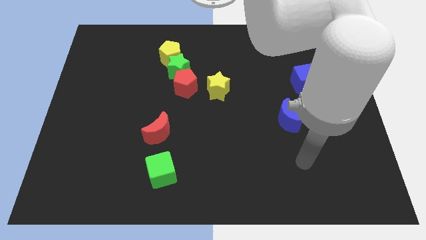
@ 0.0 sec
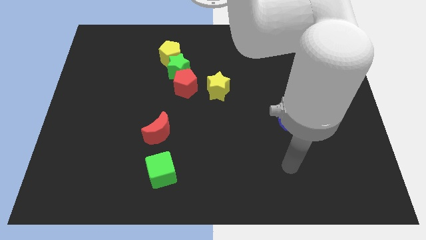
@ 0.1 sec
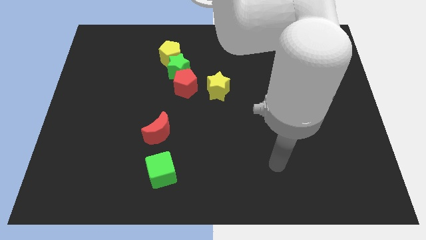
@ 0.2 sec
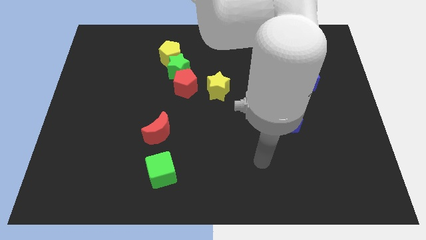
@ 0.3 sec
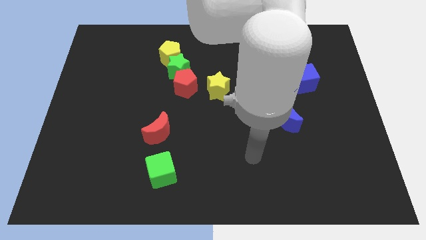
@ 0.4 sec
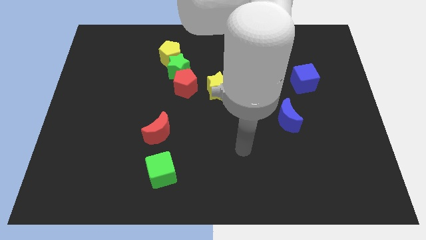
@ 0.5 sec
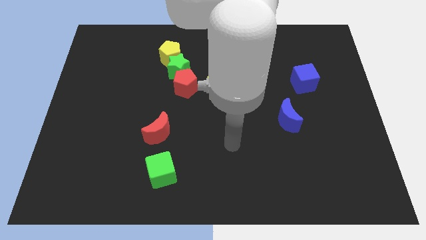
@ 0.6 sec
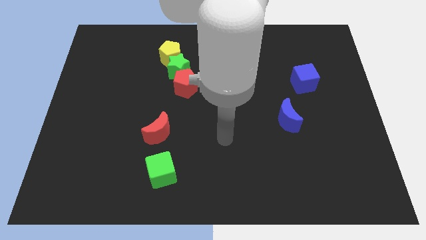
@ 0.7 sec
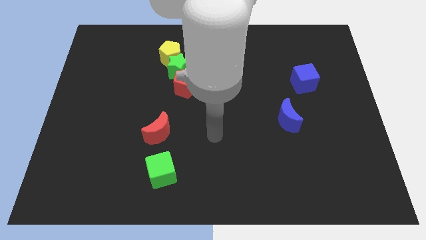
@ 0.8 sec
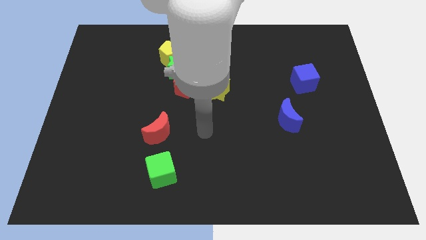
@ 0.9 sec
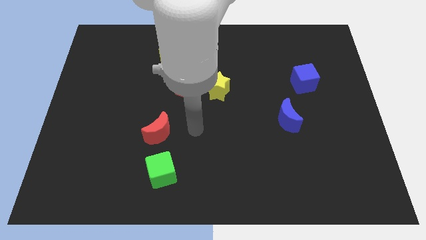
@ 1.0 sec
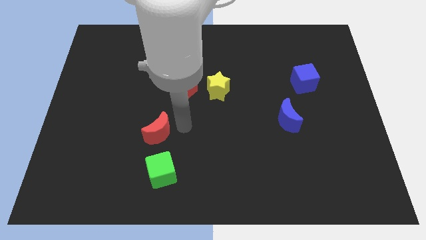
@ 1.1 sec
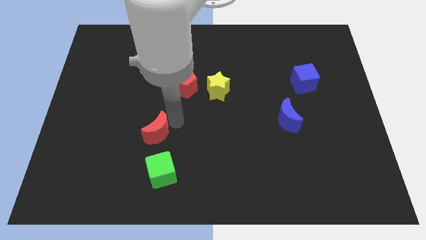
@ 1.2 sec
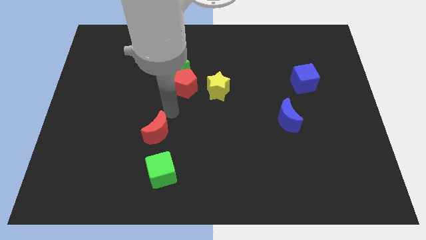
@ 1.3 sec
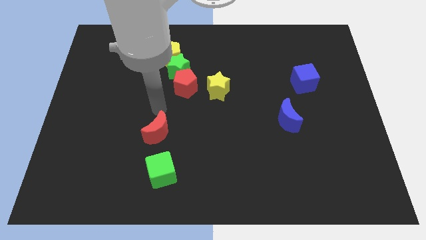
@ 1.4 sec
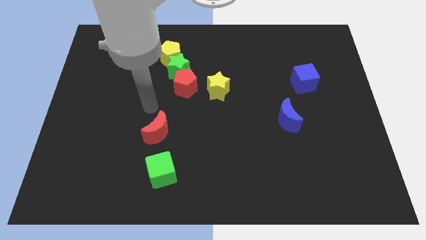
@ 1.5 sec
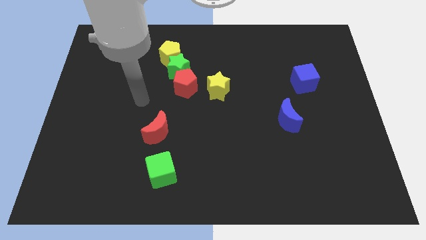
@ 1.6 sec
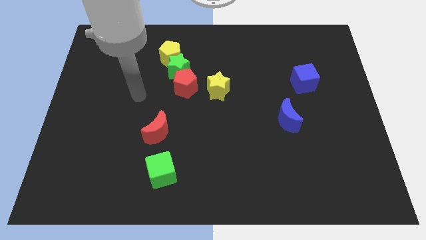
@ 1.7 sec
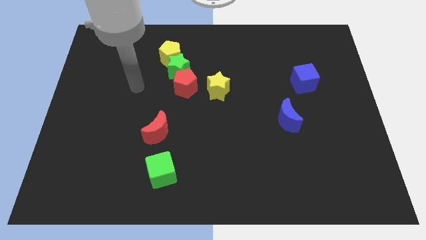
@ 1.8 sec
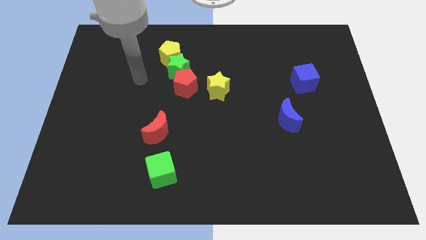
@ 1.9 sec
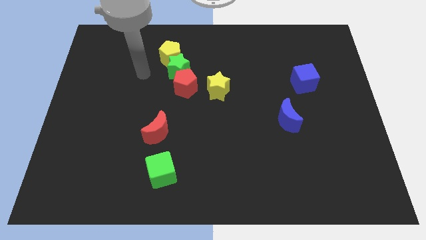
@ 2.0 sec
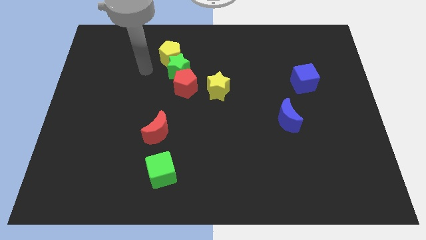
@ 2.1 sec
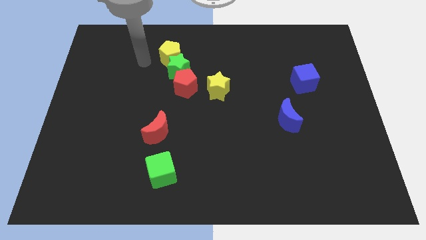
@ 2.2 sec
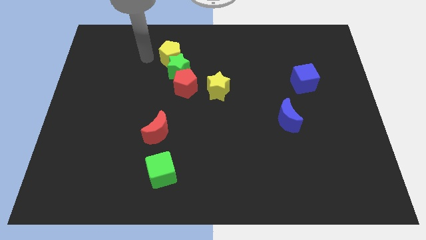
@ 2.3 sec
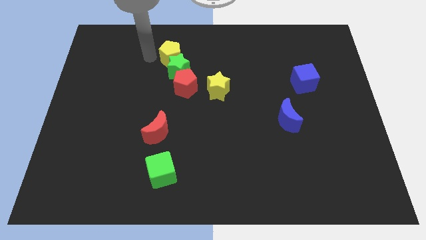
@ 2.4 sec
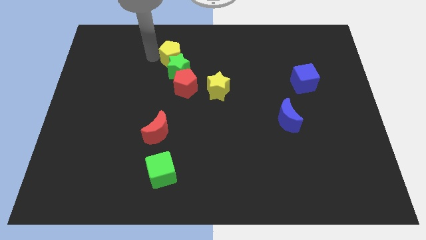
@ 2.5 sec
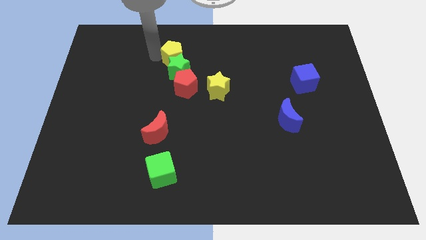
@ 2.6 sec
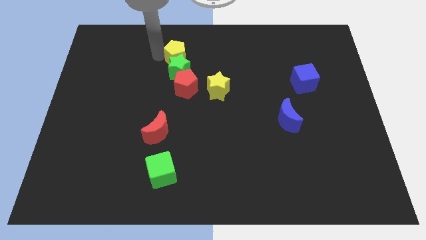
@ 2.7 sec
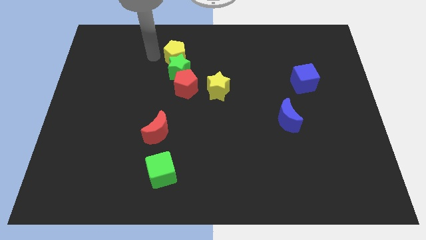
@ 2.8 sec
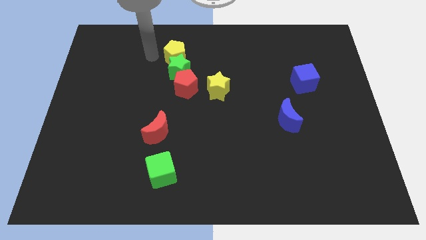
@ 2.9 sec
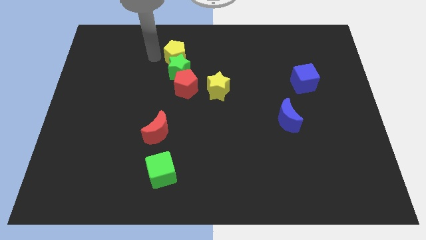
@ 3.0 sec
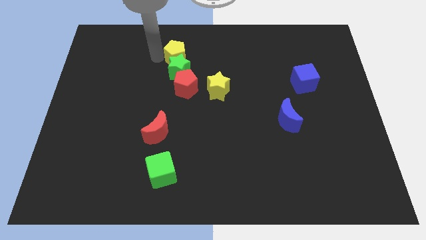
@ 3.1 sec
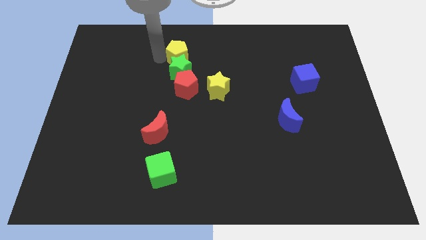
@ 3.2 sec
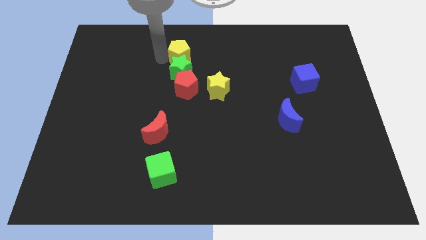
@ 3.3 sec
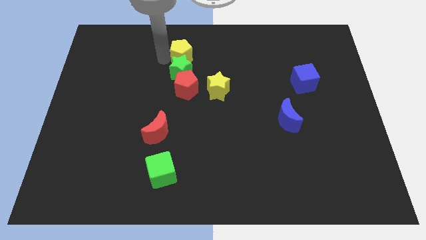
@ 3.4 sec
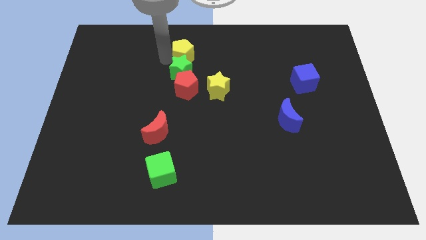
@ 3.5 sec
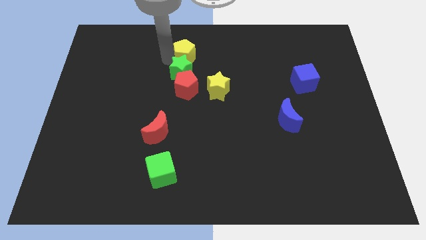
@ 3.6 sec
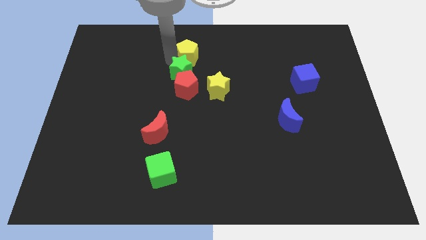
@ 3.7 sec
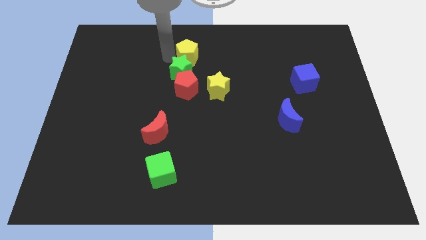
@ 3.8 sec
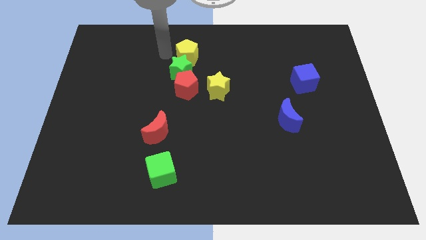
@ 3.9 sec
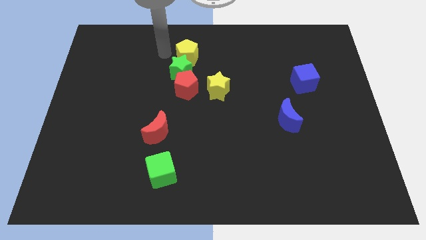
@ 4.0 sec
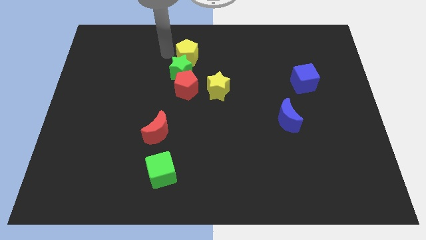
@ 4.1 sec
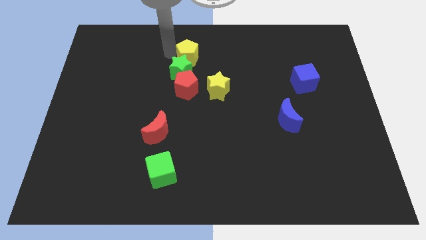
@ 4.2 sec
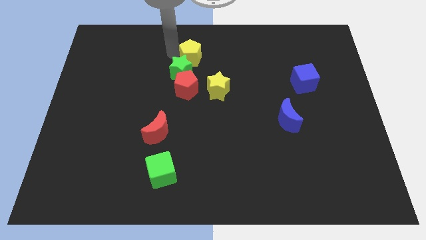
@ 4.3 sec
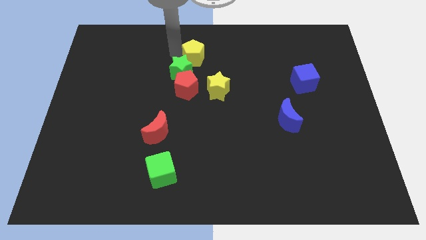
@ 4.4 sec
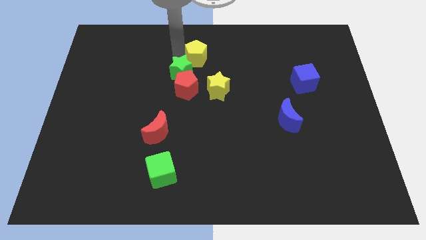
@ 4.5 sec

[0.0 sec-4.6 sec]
move the yellow pentagon to the right a little

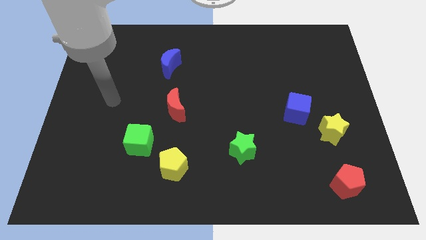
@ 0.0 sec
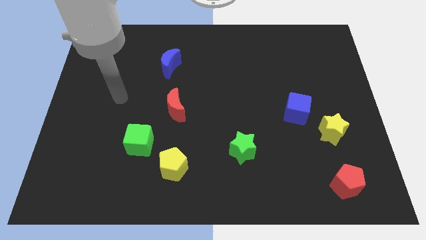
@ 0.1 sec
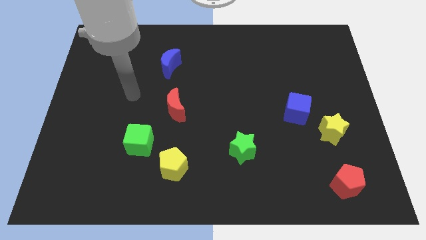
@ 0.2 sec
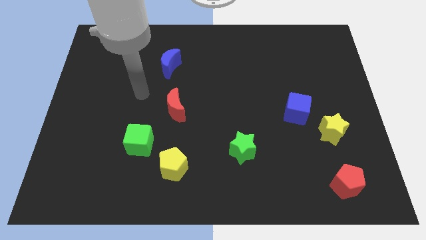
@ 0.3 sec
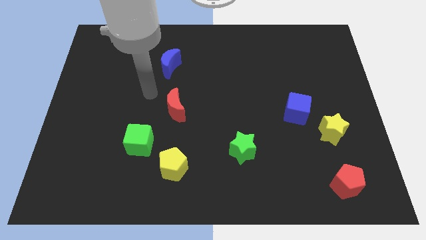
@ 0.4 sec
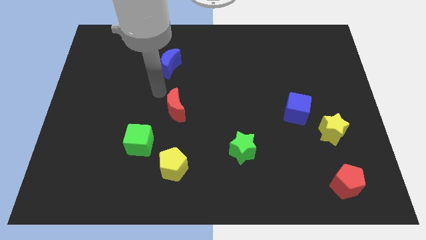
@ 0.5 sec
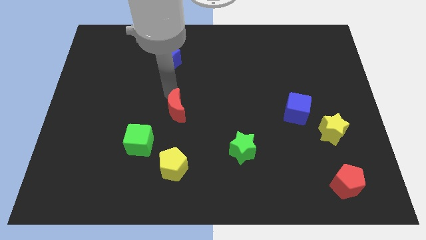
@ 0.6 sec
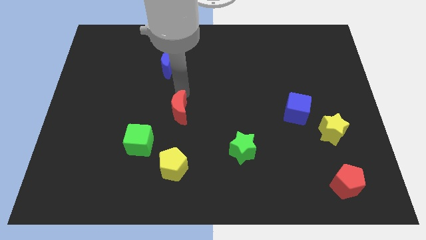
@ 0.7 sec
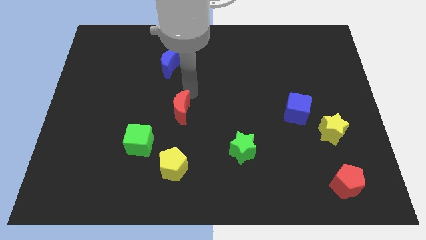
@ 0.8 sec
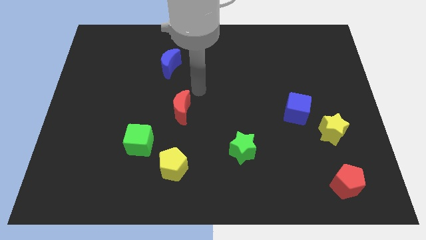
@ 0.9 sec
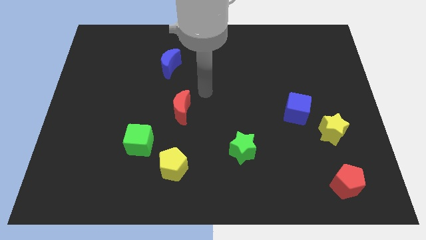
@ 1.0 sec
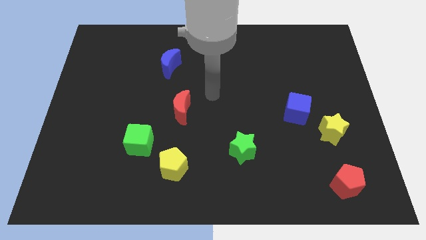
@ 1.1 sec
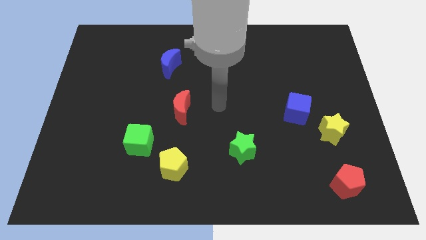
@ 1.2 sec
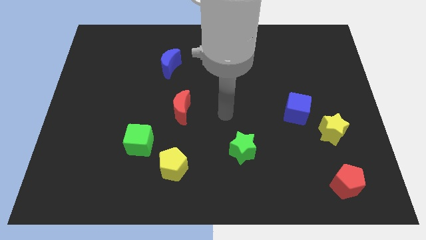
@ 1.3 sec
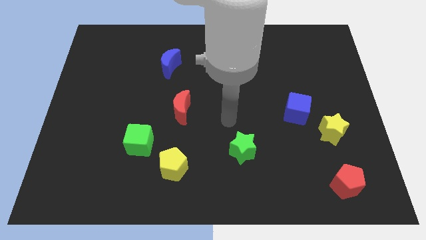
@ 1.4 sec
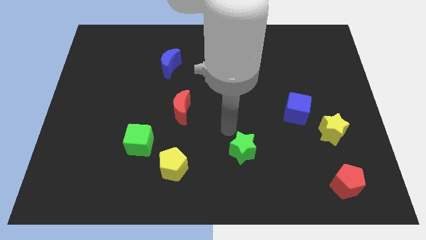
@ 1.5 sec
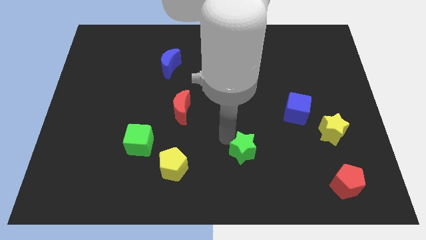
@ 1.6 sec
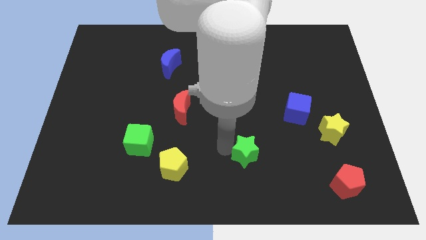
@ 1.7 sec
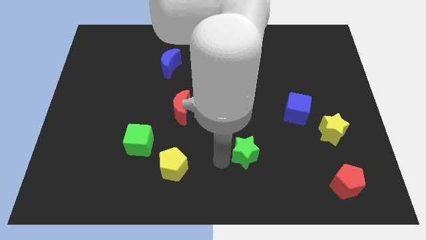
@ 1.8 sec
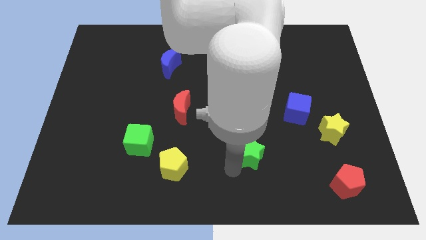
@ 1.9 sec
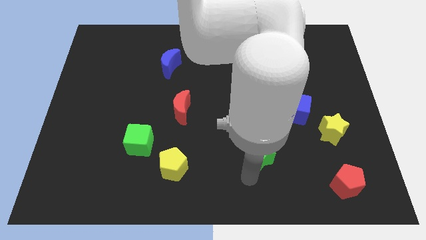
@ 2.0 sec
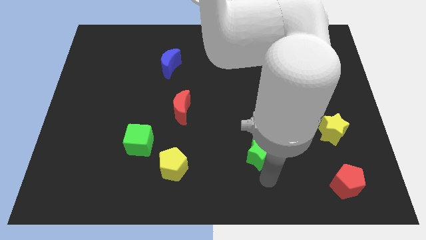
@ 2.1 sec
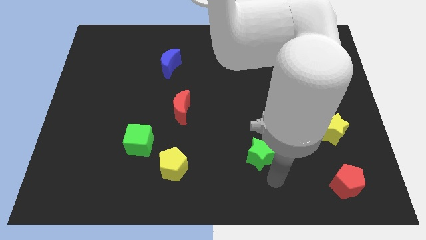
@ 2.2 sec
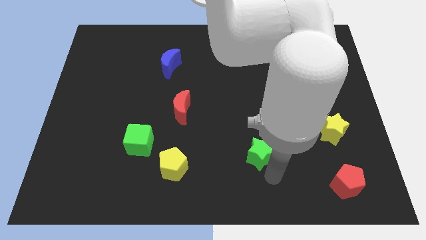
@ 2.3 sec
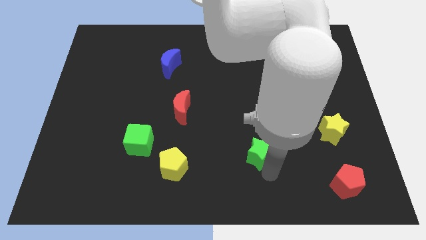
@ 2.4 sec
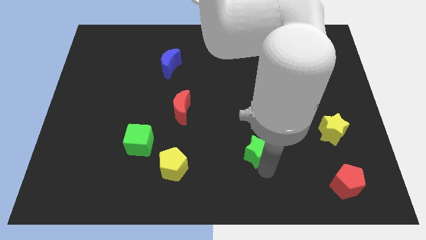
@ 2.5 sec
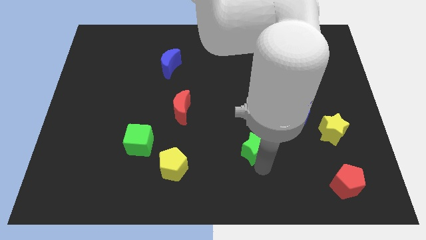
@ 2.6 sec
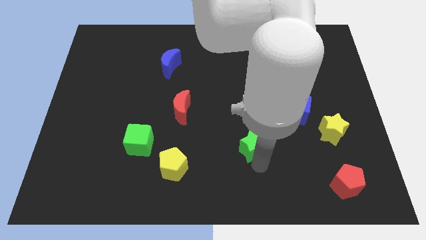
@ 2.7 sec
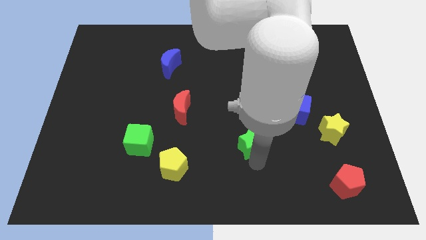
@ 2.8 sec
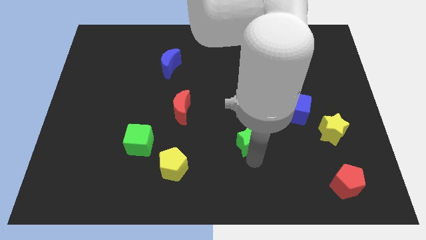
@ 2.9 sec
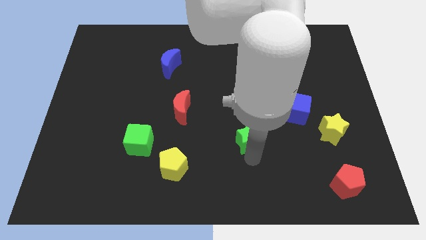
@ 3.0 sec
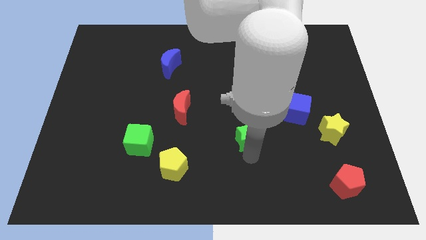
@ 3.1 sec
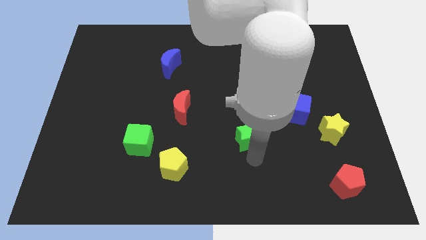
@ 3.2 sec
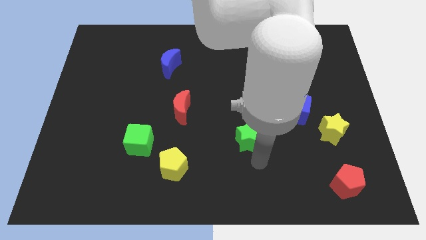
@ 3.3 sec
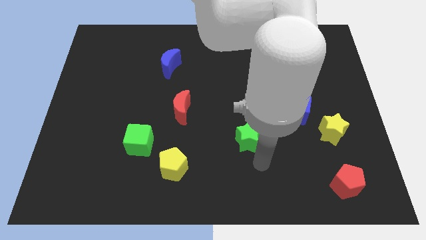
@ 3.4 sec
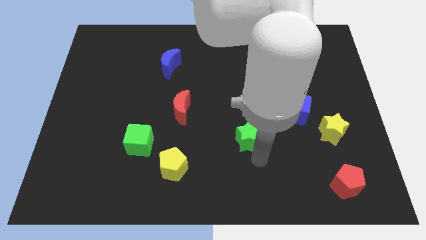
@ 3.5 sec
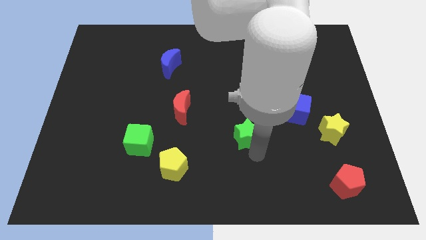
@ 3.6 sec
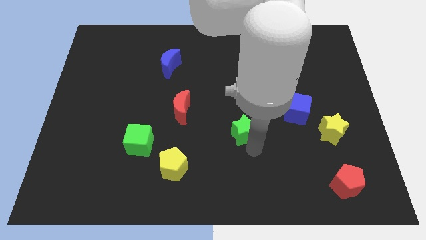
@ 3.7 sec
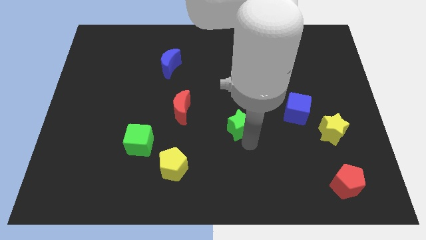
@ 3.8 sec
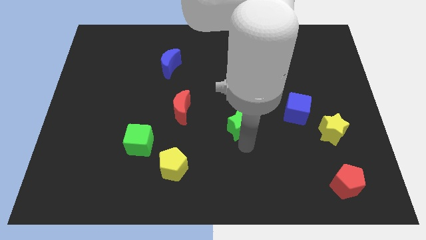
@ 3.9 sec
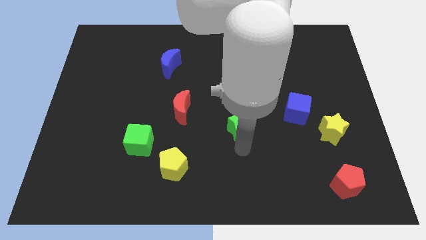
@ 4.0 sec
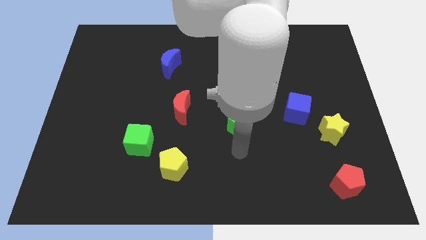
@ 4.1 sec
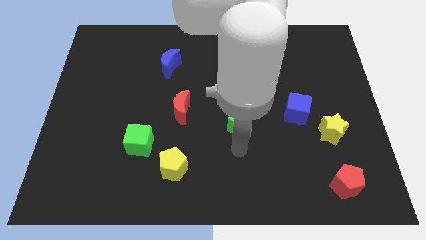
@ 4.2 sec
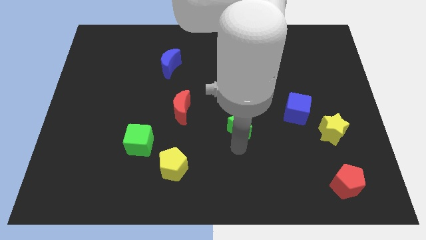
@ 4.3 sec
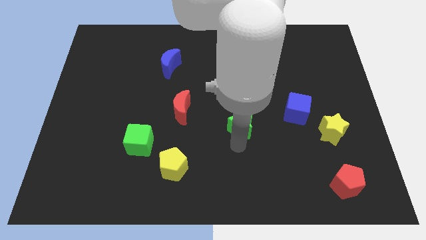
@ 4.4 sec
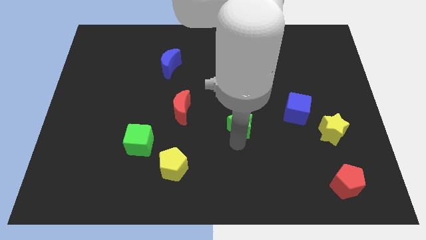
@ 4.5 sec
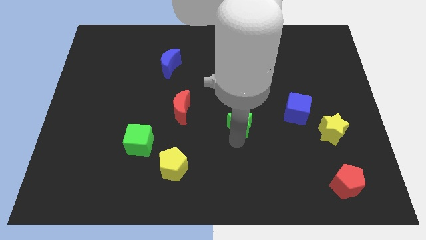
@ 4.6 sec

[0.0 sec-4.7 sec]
move the green star a little bit upwards
